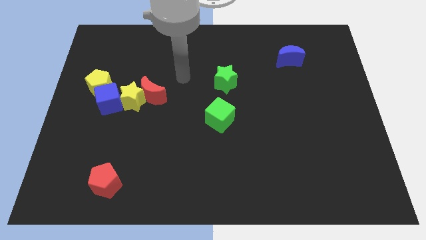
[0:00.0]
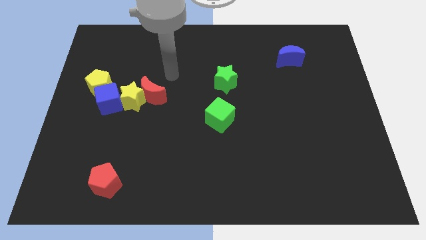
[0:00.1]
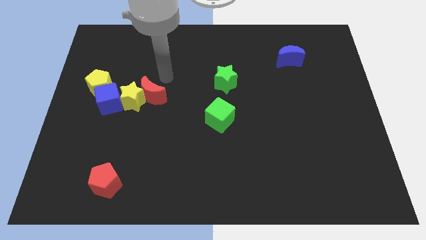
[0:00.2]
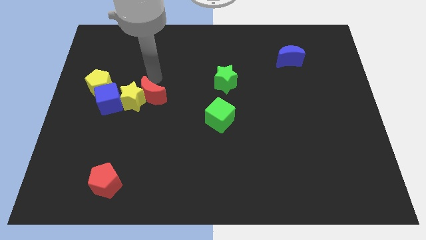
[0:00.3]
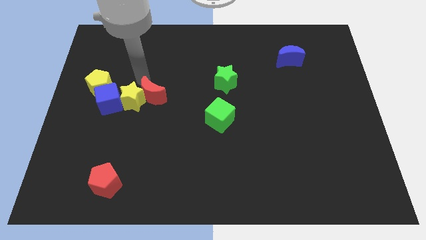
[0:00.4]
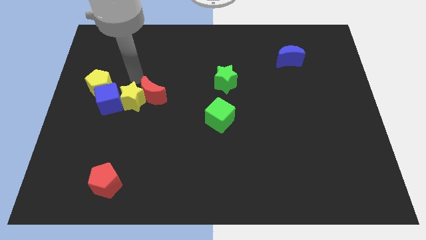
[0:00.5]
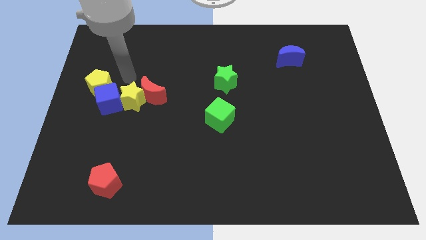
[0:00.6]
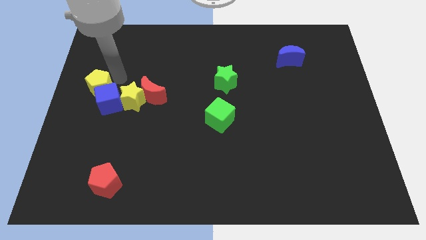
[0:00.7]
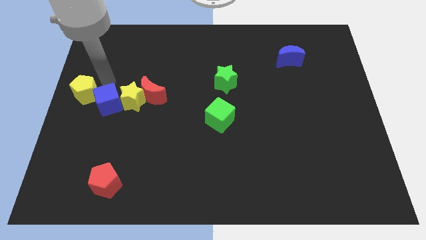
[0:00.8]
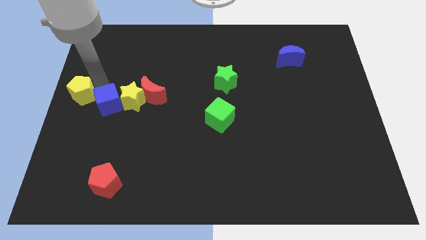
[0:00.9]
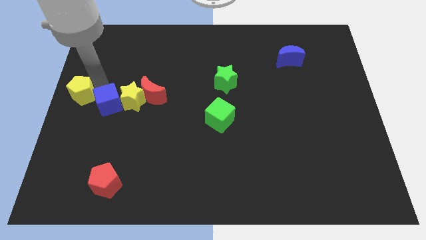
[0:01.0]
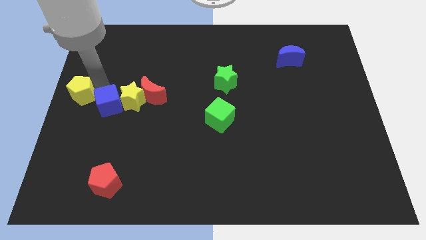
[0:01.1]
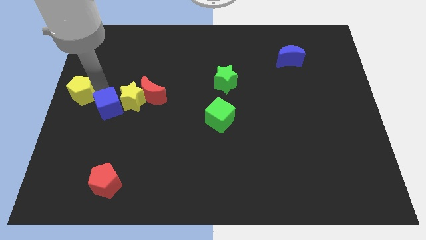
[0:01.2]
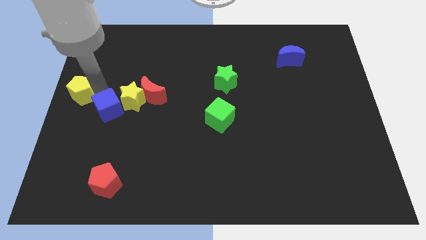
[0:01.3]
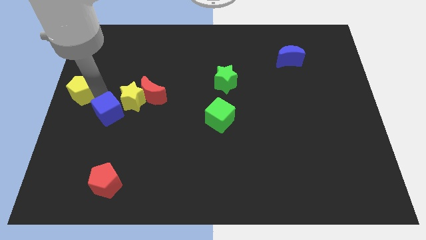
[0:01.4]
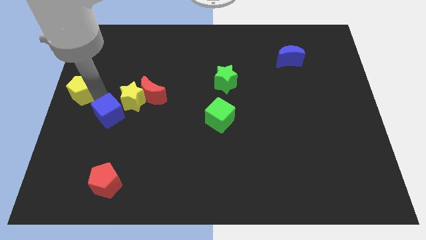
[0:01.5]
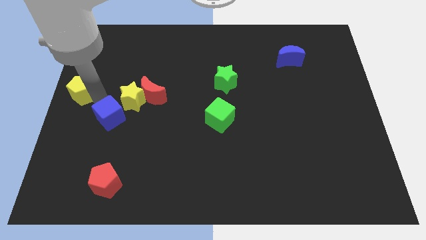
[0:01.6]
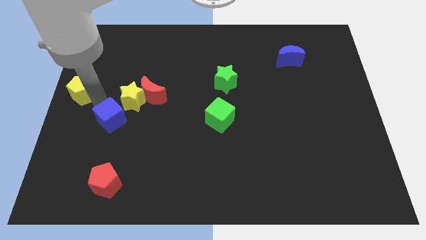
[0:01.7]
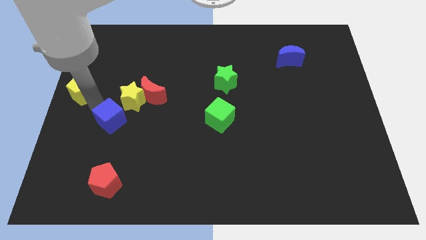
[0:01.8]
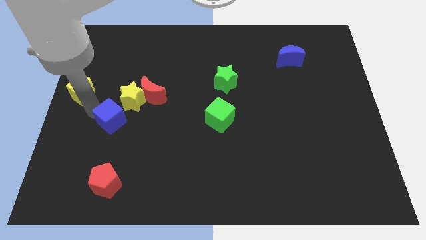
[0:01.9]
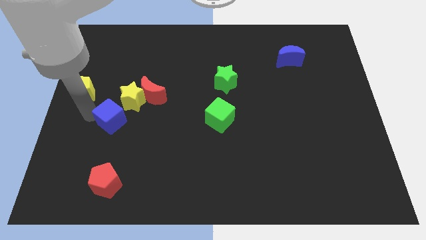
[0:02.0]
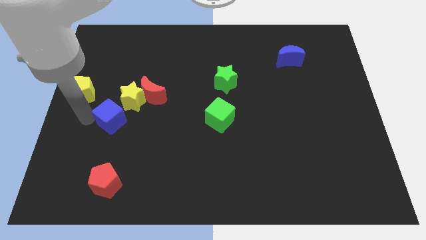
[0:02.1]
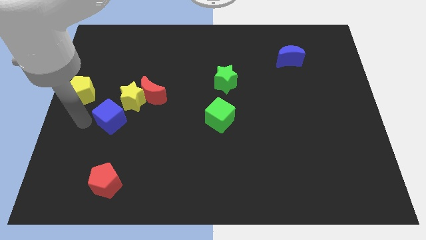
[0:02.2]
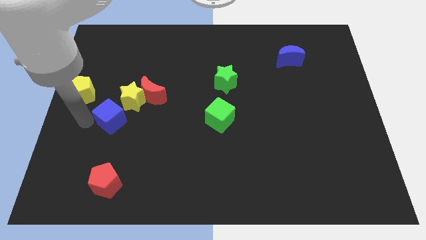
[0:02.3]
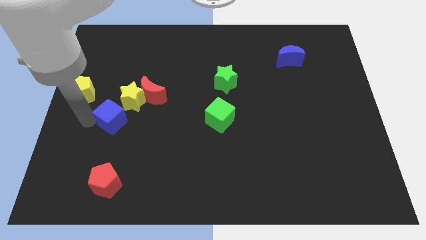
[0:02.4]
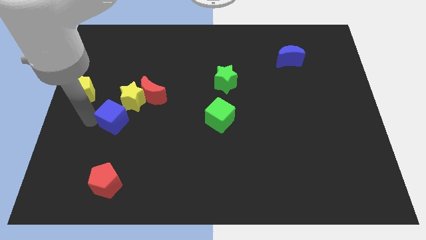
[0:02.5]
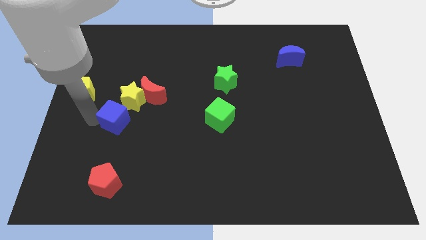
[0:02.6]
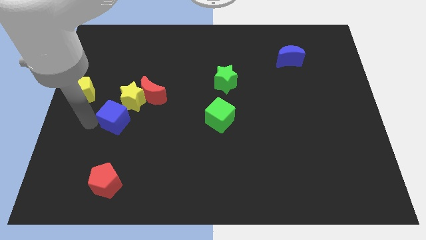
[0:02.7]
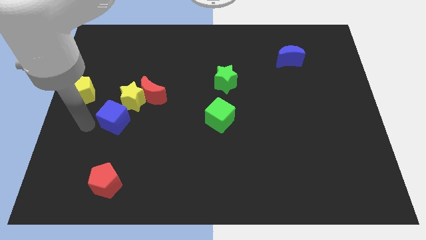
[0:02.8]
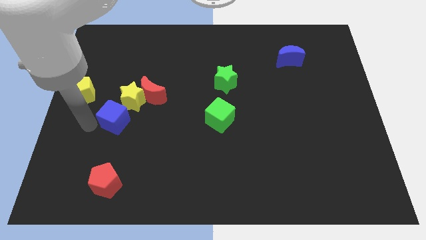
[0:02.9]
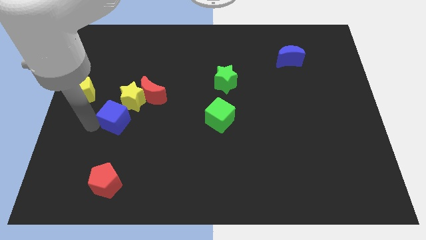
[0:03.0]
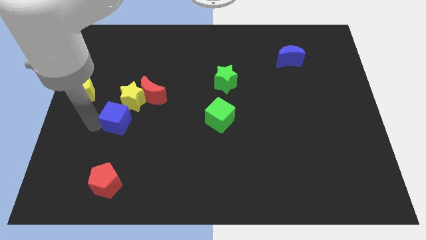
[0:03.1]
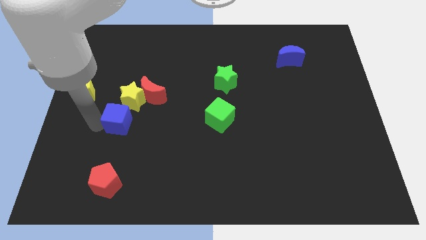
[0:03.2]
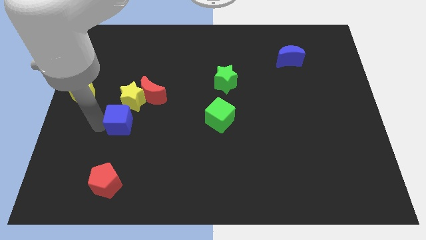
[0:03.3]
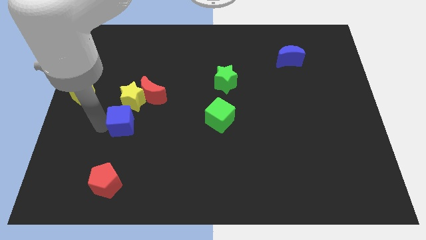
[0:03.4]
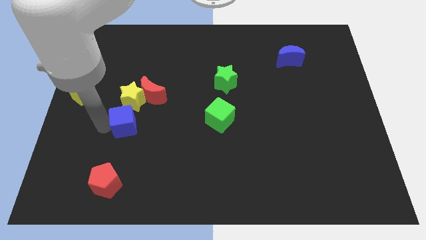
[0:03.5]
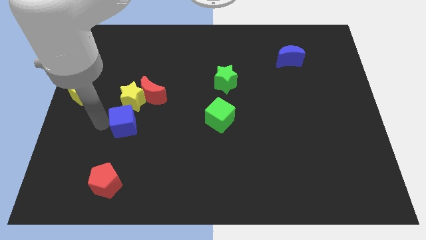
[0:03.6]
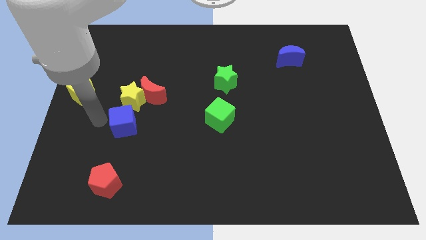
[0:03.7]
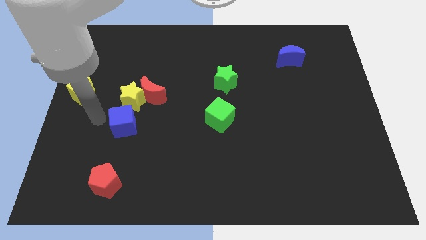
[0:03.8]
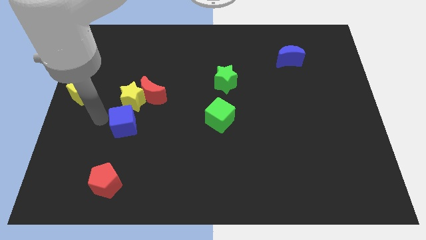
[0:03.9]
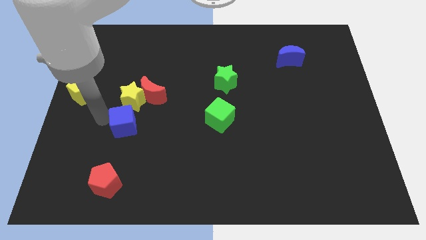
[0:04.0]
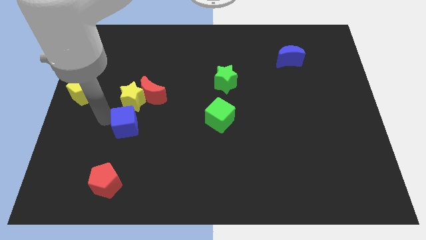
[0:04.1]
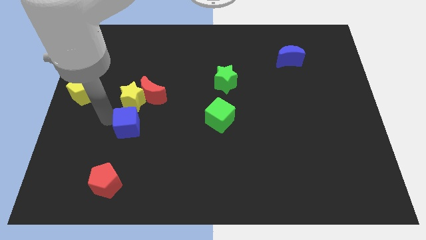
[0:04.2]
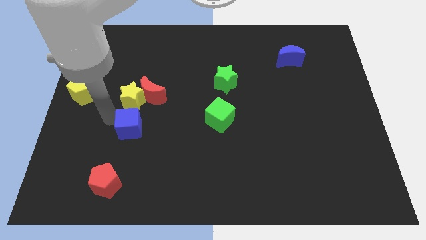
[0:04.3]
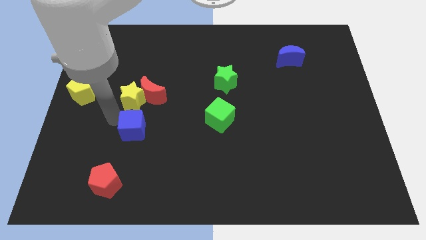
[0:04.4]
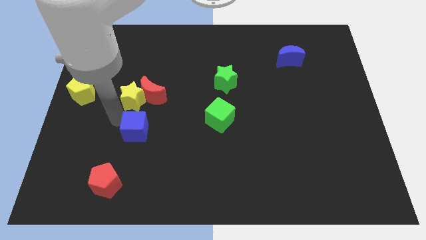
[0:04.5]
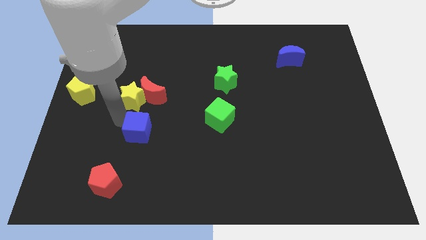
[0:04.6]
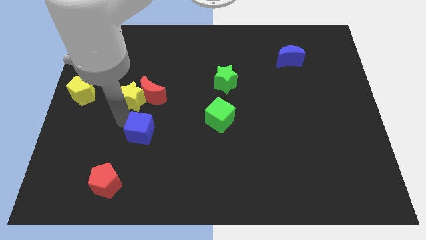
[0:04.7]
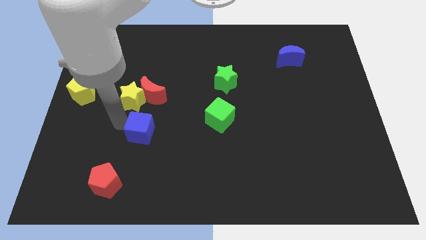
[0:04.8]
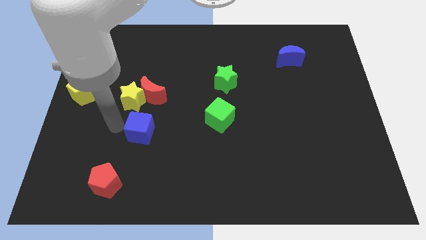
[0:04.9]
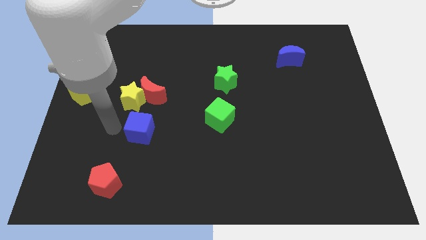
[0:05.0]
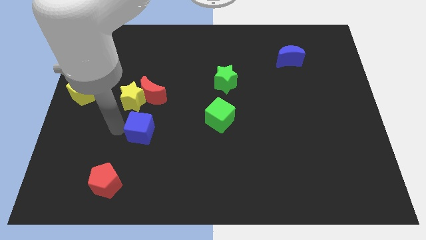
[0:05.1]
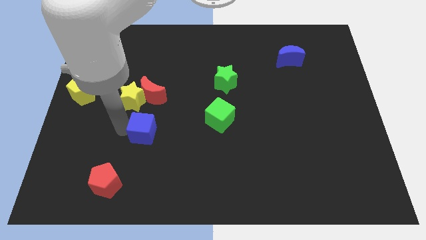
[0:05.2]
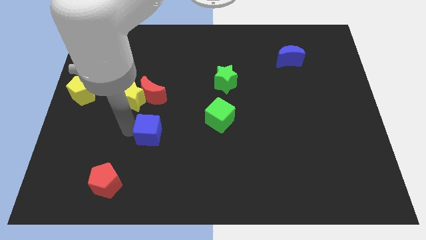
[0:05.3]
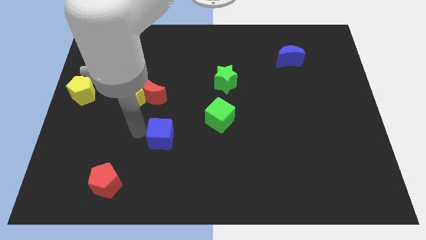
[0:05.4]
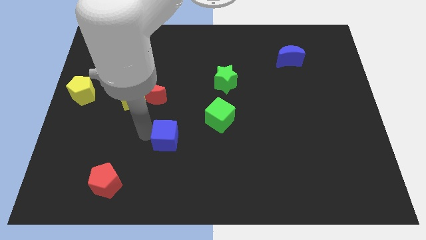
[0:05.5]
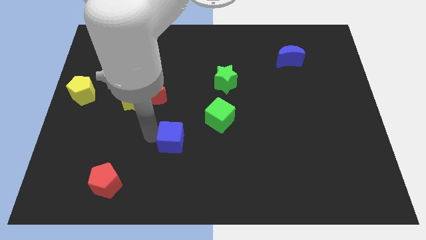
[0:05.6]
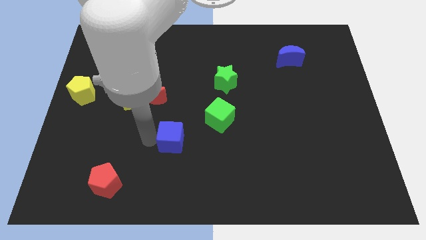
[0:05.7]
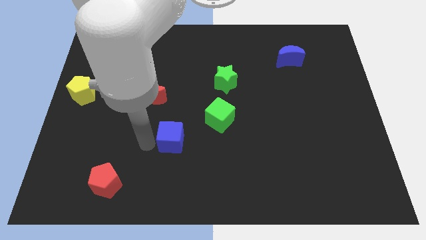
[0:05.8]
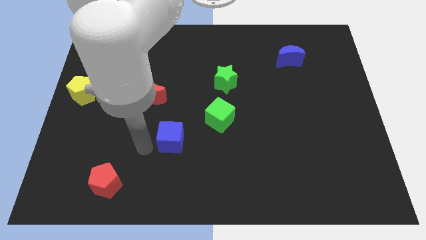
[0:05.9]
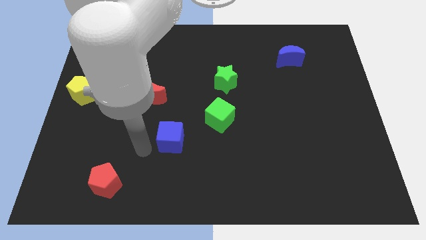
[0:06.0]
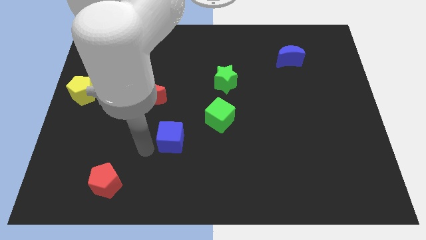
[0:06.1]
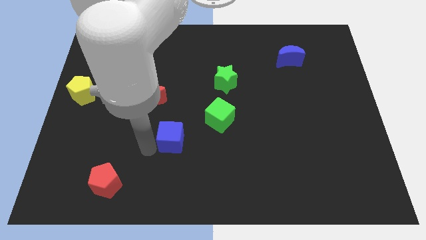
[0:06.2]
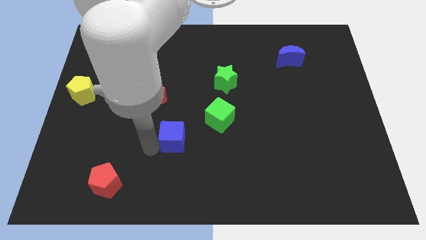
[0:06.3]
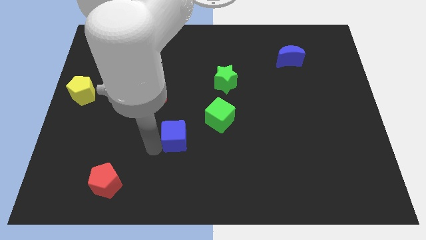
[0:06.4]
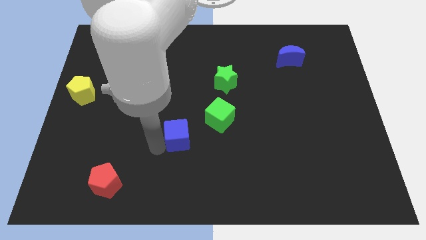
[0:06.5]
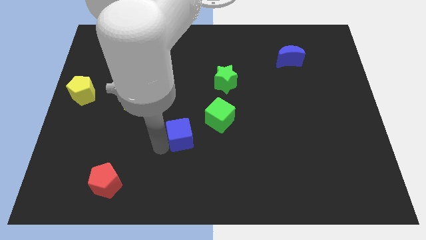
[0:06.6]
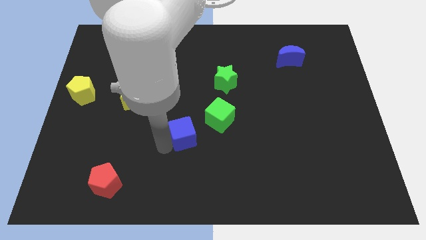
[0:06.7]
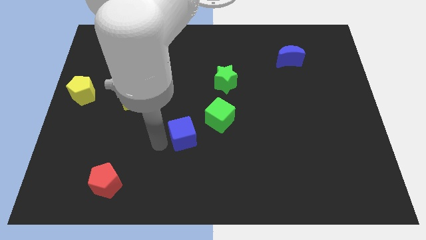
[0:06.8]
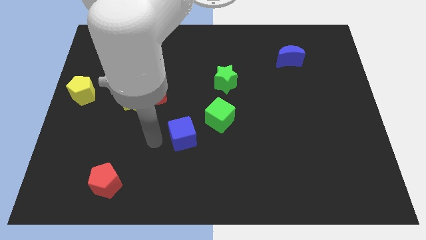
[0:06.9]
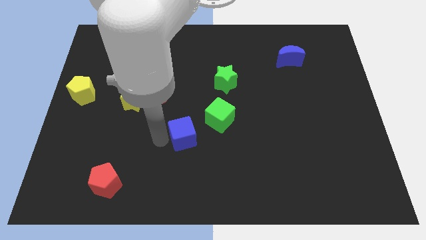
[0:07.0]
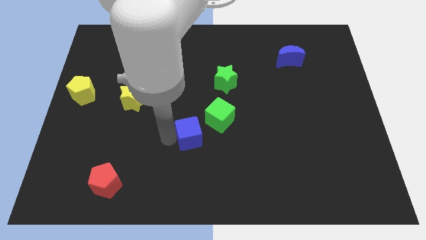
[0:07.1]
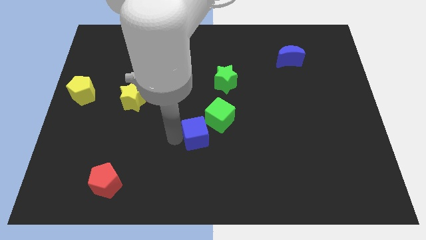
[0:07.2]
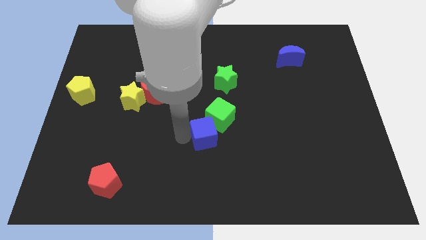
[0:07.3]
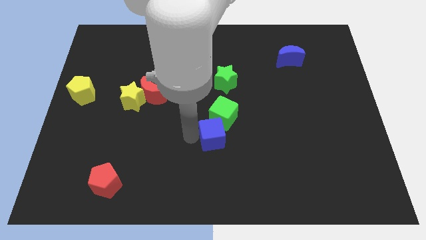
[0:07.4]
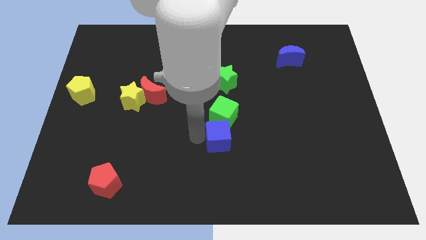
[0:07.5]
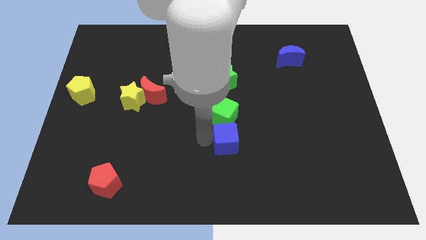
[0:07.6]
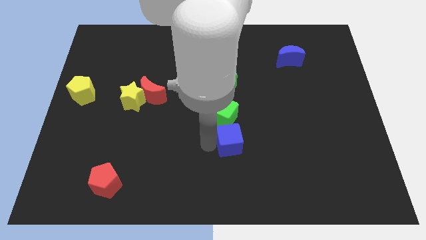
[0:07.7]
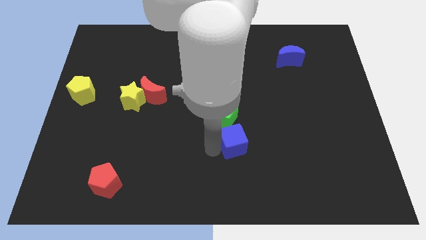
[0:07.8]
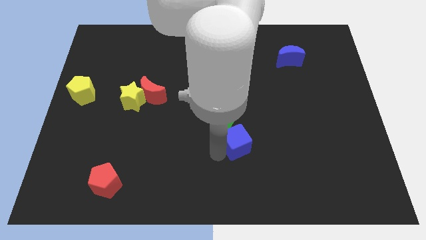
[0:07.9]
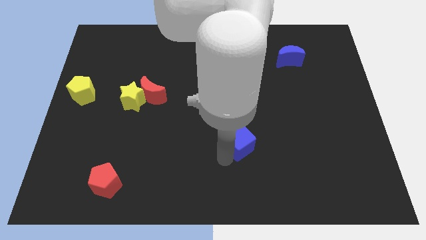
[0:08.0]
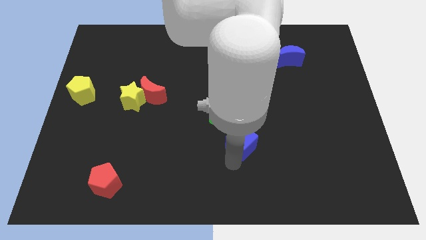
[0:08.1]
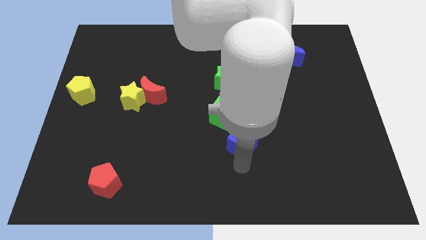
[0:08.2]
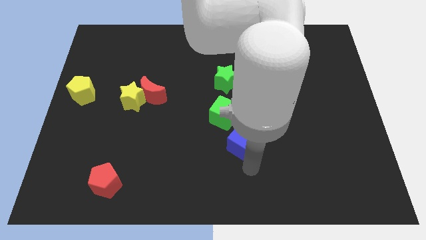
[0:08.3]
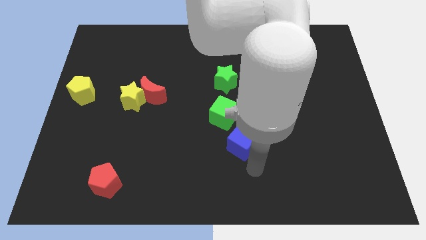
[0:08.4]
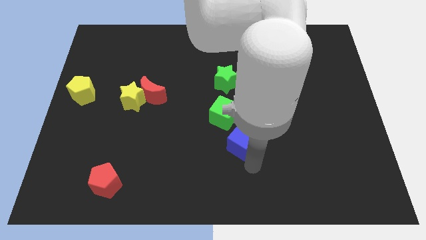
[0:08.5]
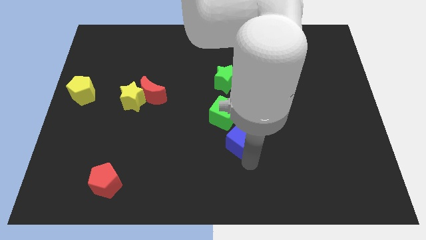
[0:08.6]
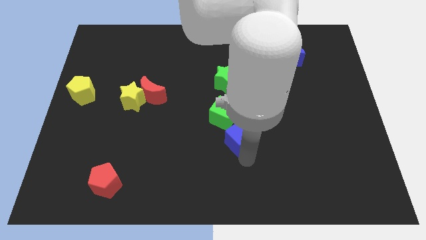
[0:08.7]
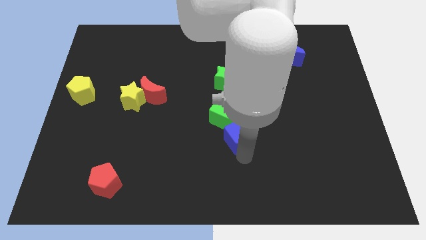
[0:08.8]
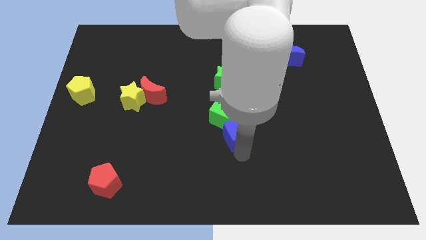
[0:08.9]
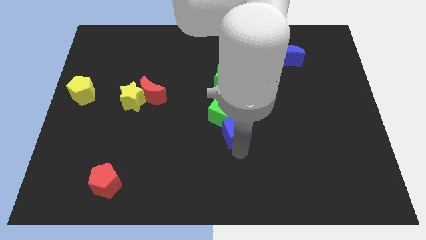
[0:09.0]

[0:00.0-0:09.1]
move the blue cube to the bottom of the green star
